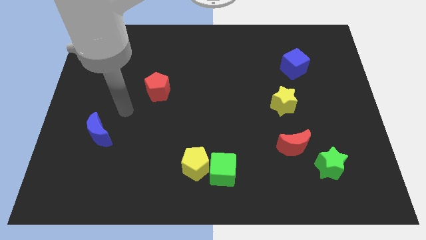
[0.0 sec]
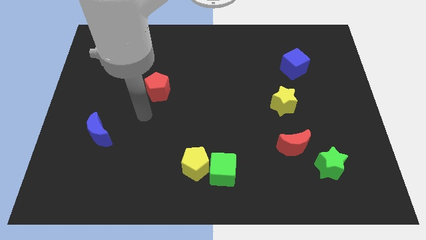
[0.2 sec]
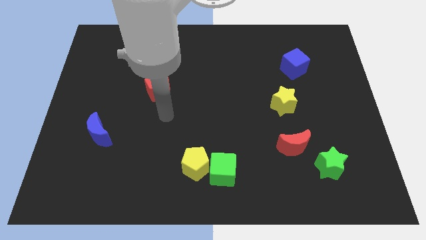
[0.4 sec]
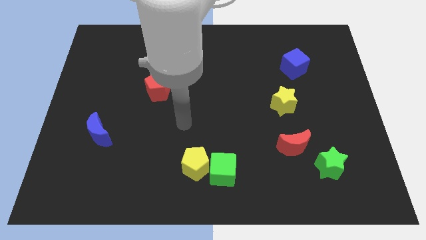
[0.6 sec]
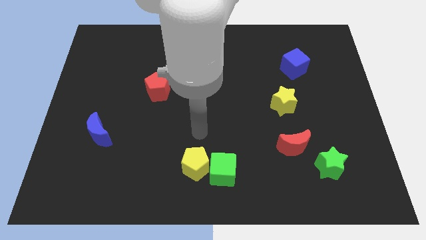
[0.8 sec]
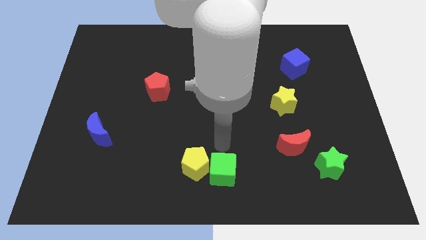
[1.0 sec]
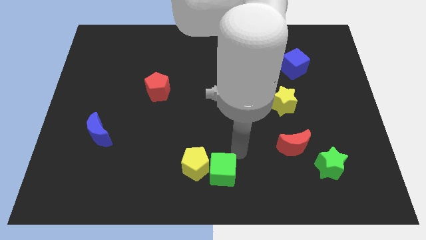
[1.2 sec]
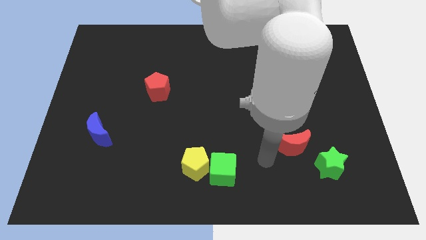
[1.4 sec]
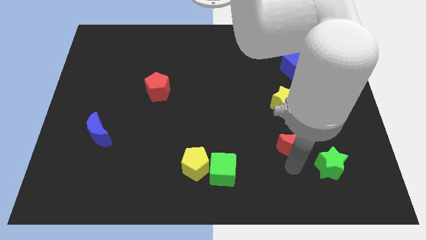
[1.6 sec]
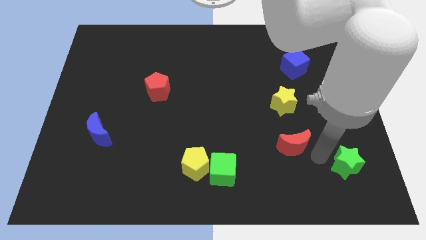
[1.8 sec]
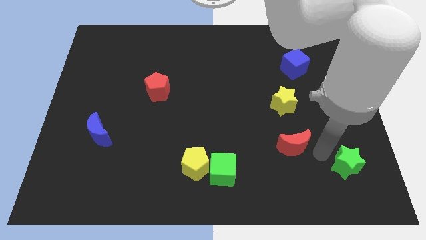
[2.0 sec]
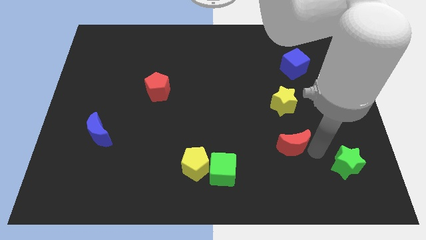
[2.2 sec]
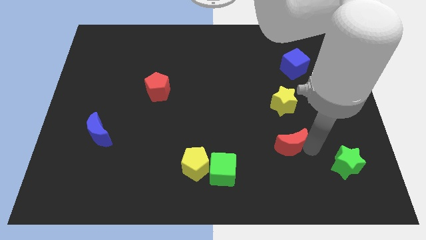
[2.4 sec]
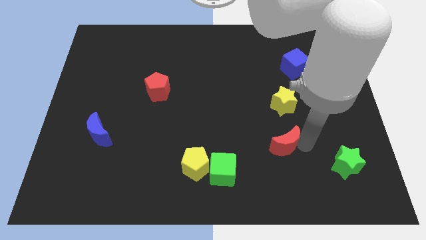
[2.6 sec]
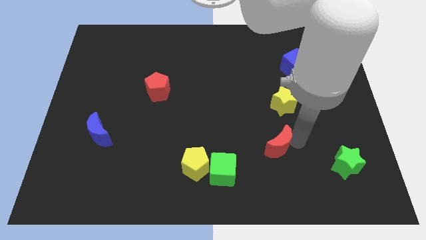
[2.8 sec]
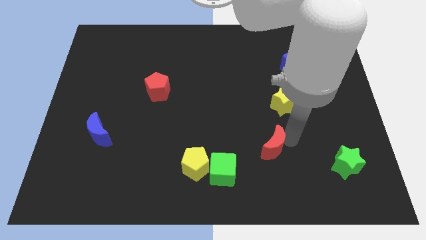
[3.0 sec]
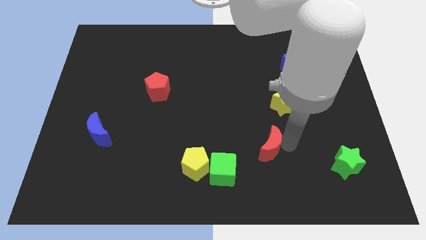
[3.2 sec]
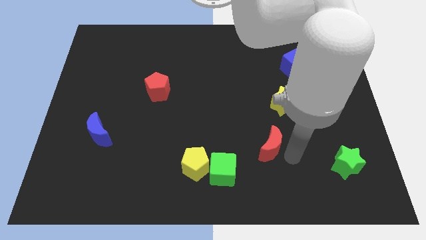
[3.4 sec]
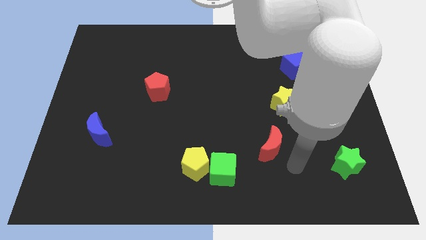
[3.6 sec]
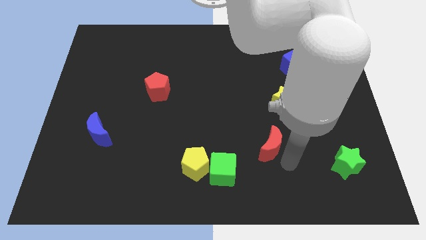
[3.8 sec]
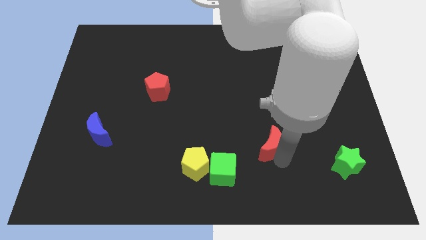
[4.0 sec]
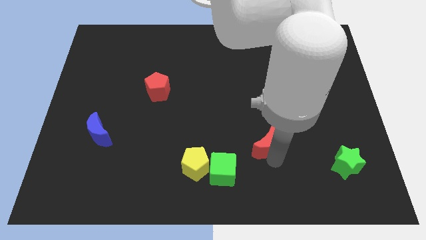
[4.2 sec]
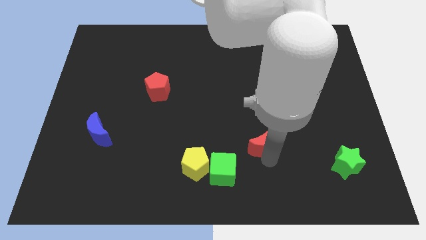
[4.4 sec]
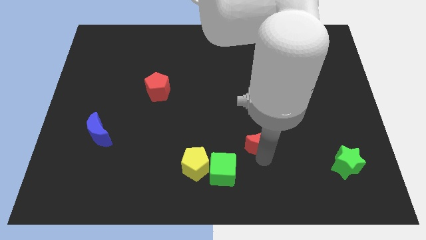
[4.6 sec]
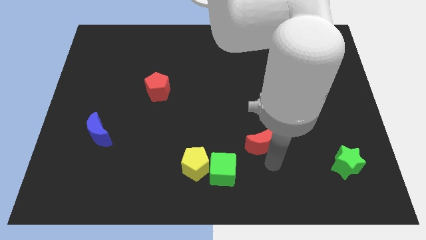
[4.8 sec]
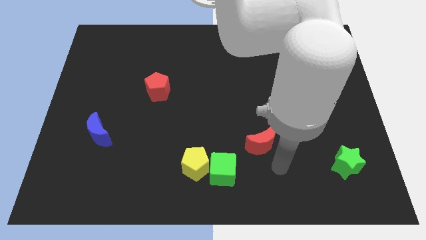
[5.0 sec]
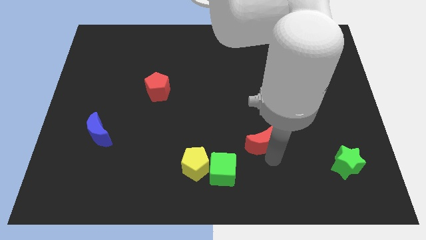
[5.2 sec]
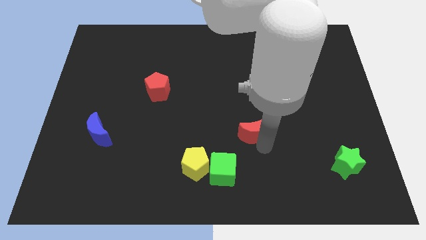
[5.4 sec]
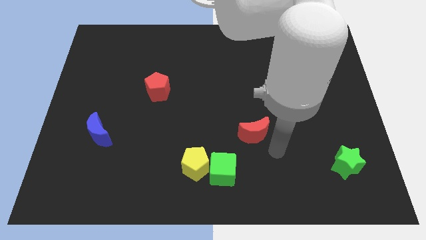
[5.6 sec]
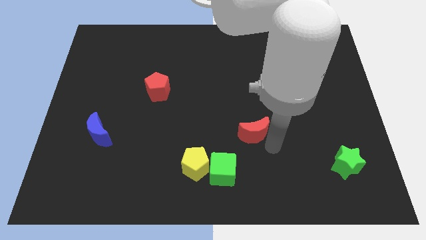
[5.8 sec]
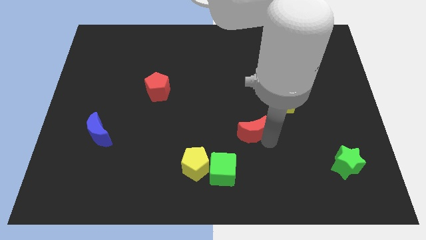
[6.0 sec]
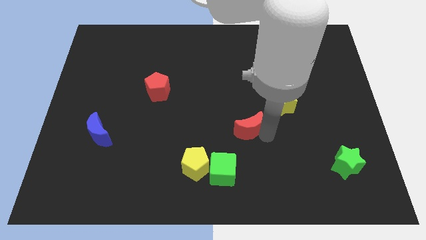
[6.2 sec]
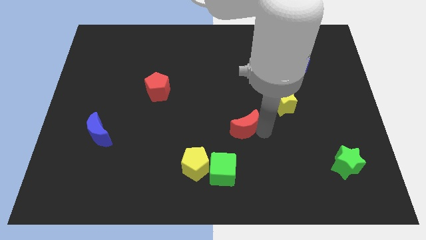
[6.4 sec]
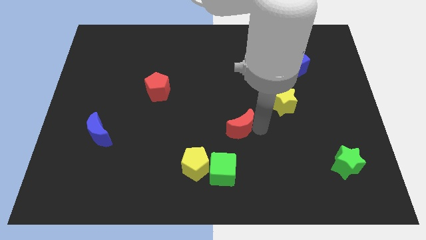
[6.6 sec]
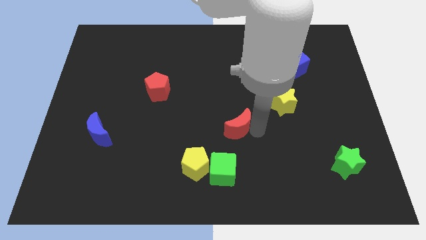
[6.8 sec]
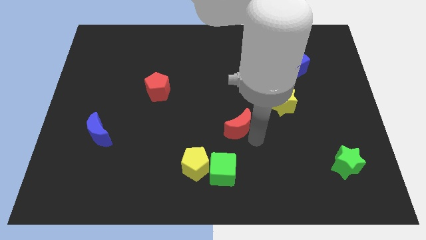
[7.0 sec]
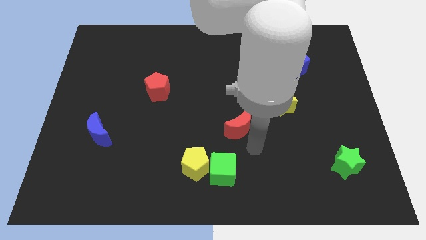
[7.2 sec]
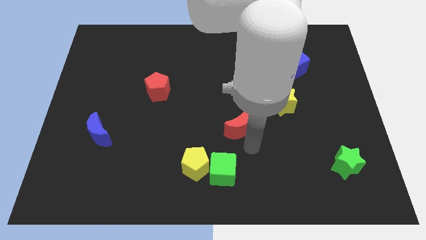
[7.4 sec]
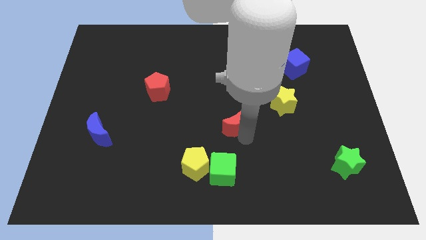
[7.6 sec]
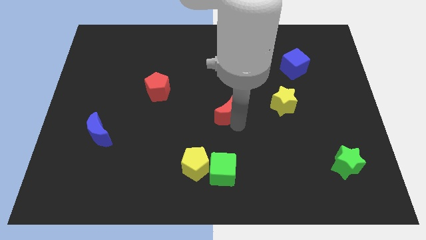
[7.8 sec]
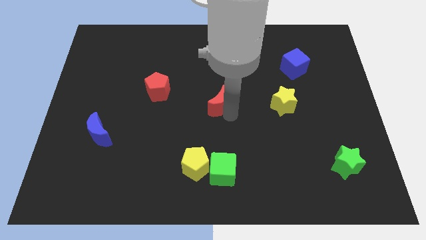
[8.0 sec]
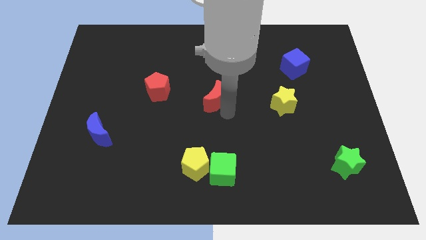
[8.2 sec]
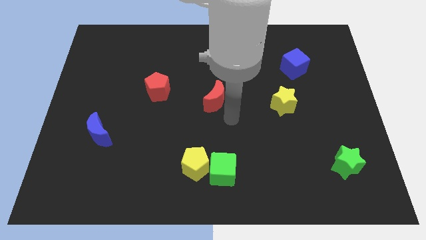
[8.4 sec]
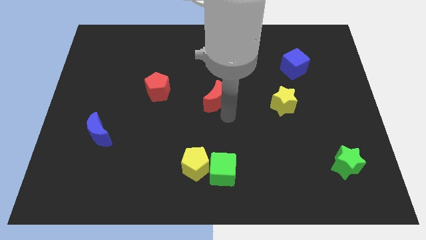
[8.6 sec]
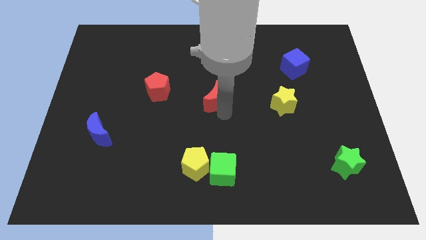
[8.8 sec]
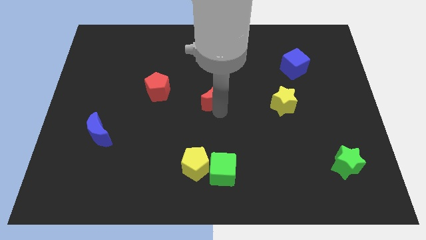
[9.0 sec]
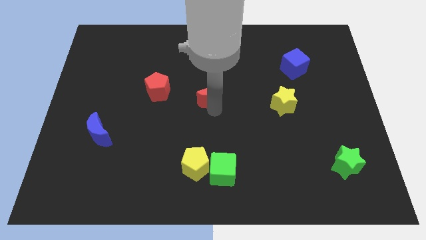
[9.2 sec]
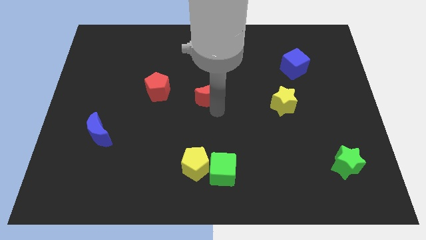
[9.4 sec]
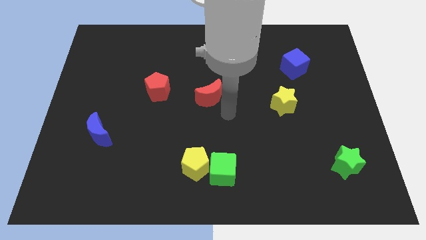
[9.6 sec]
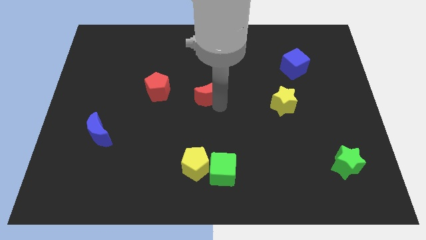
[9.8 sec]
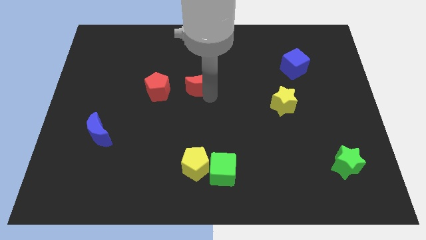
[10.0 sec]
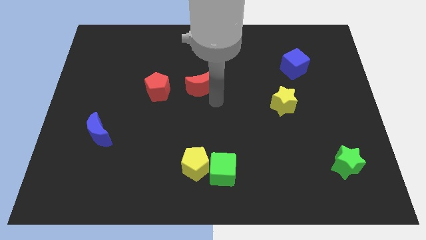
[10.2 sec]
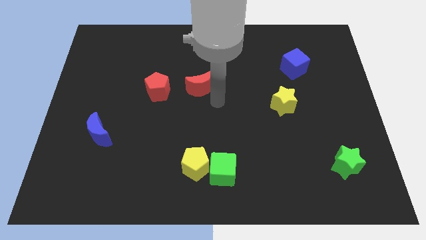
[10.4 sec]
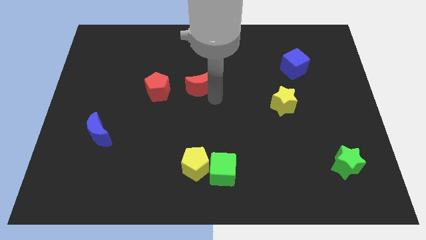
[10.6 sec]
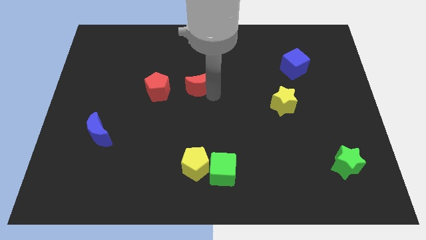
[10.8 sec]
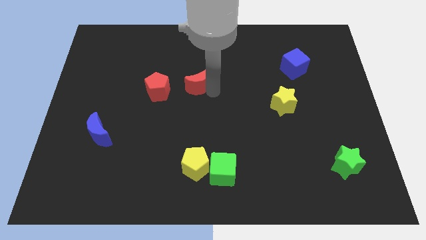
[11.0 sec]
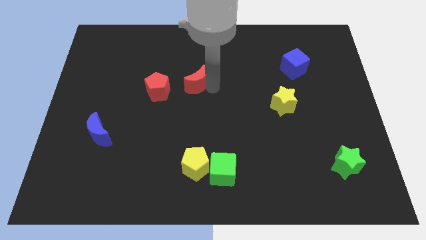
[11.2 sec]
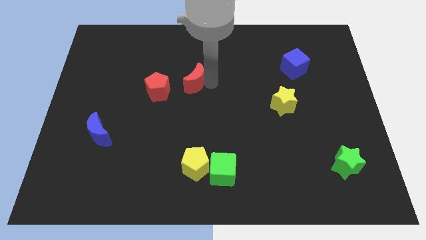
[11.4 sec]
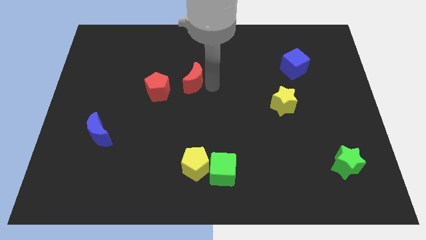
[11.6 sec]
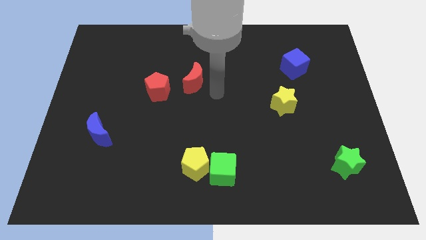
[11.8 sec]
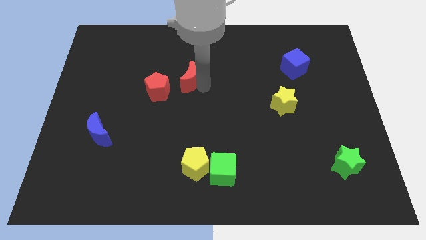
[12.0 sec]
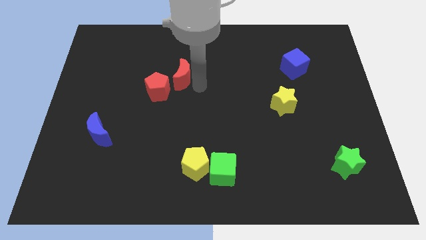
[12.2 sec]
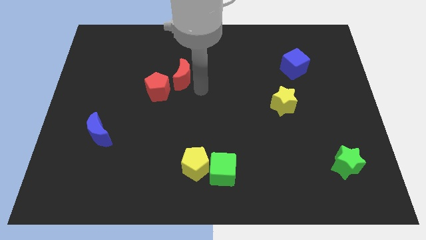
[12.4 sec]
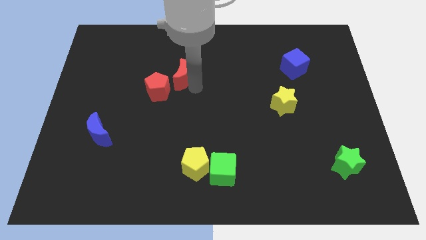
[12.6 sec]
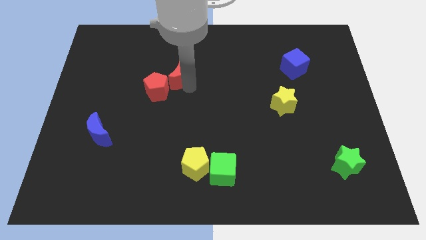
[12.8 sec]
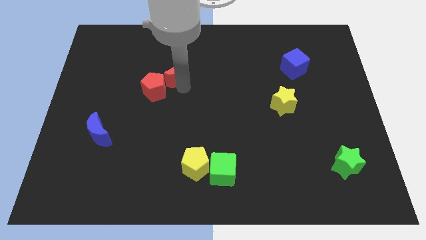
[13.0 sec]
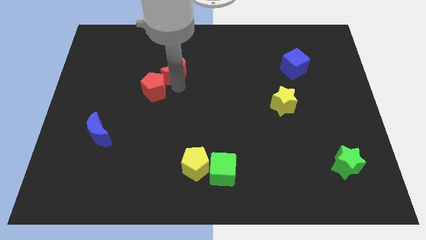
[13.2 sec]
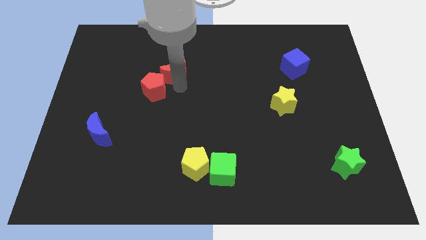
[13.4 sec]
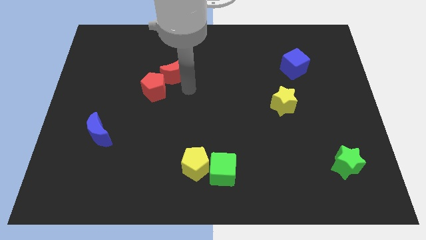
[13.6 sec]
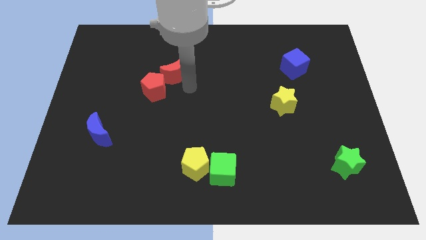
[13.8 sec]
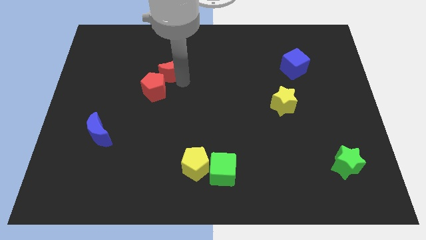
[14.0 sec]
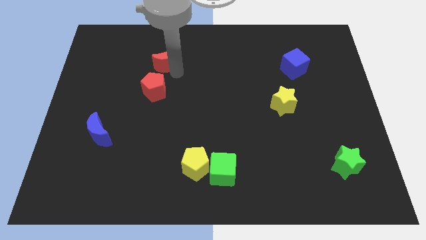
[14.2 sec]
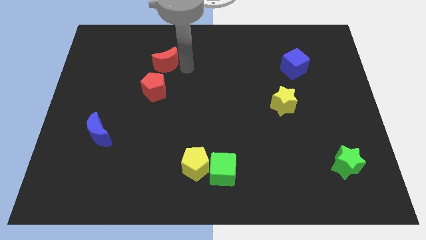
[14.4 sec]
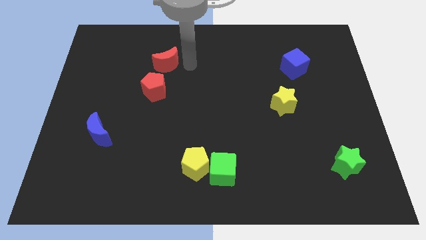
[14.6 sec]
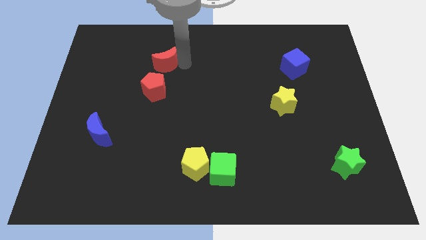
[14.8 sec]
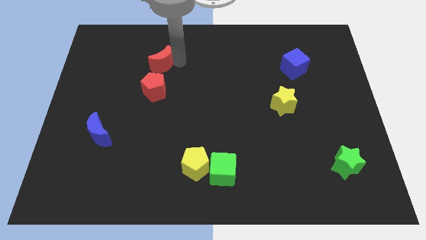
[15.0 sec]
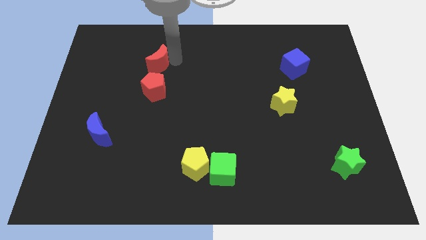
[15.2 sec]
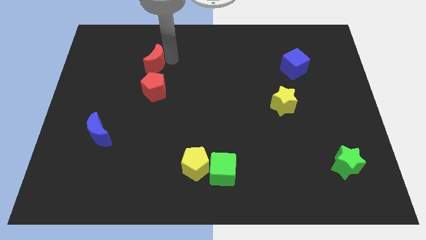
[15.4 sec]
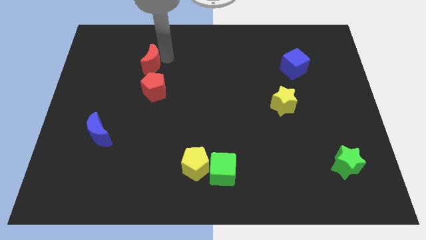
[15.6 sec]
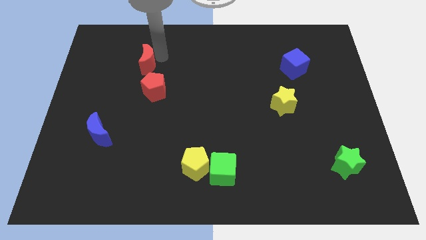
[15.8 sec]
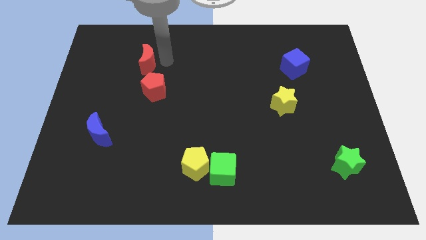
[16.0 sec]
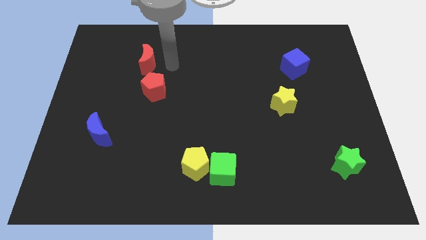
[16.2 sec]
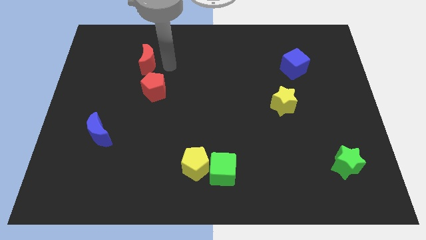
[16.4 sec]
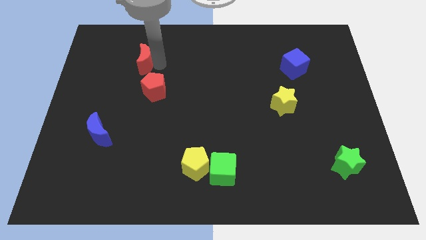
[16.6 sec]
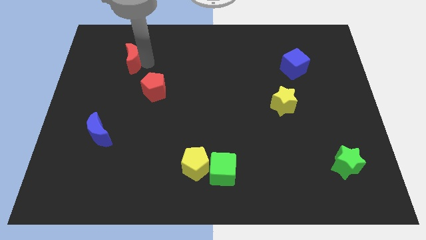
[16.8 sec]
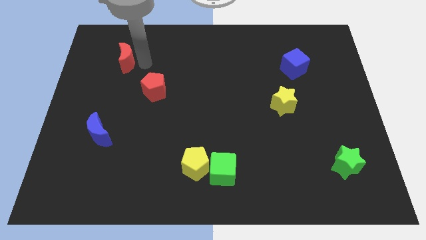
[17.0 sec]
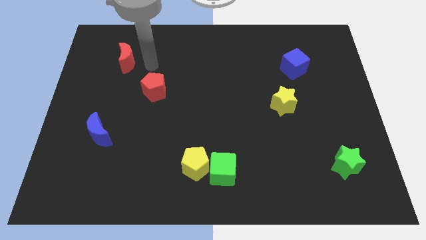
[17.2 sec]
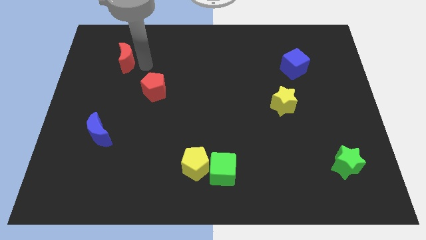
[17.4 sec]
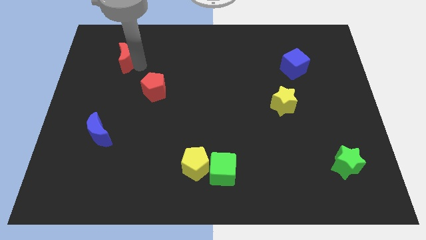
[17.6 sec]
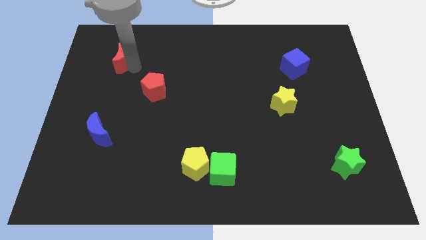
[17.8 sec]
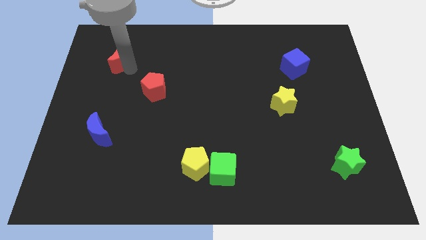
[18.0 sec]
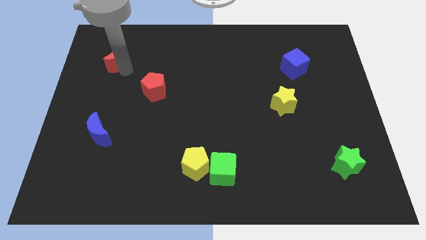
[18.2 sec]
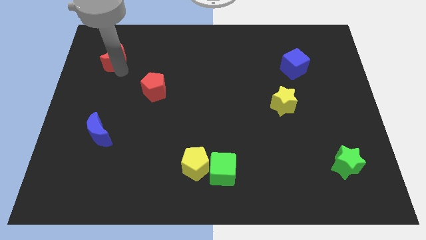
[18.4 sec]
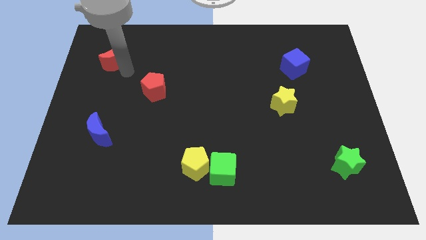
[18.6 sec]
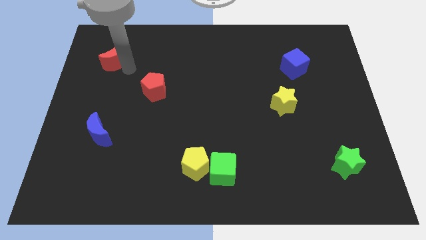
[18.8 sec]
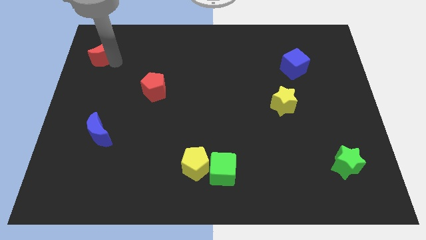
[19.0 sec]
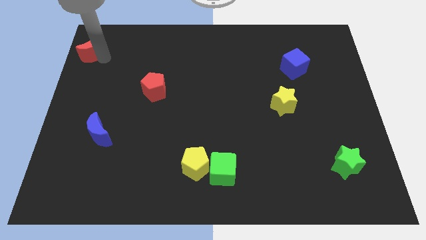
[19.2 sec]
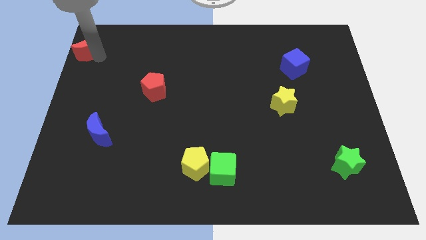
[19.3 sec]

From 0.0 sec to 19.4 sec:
put the red moon to the top left
